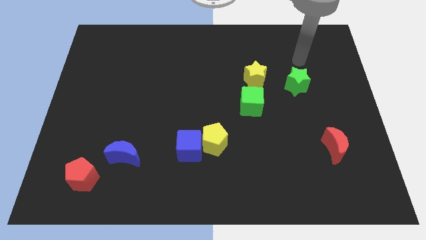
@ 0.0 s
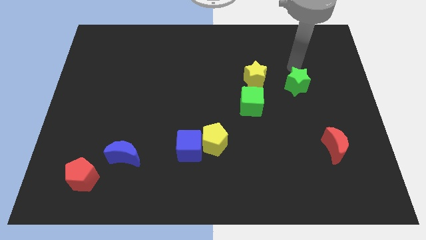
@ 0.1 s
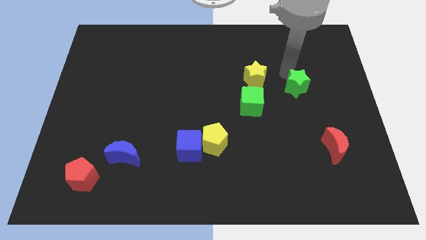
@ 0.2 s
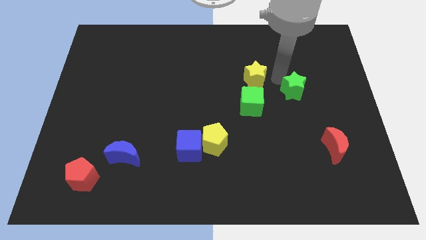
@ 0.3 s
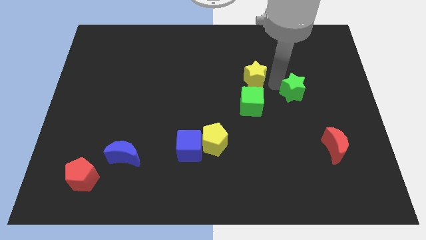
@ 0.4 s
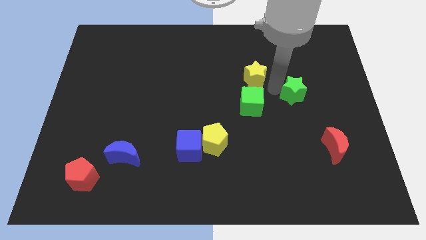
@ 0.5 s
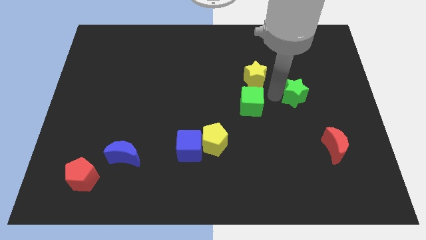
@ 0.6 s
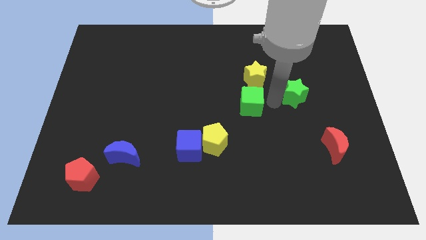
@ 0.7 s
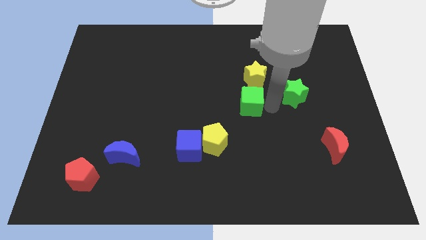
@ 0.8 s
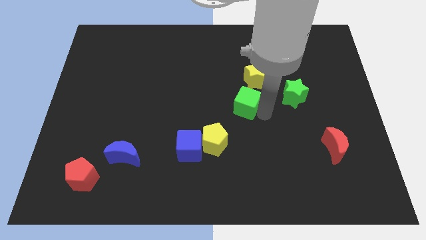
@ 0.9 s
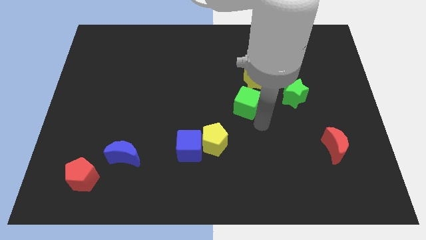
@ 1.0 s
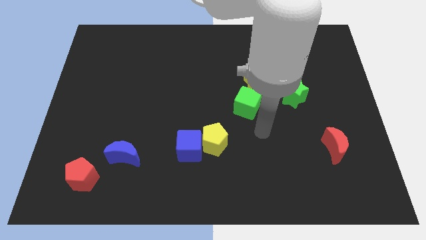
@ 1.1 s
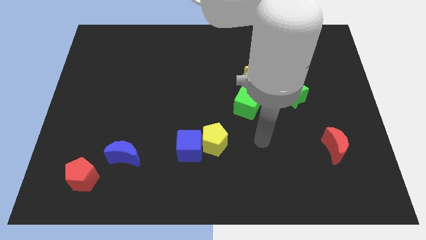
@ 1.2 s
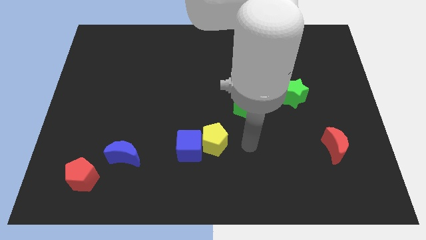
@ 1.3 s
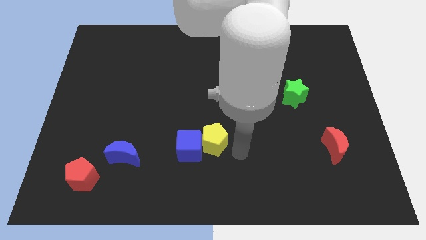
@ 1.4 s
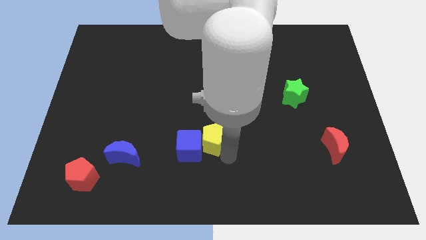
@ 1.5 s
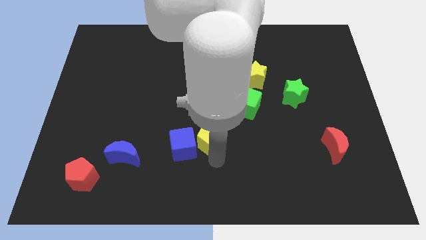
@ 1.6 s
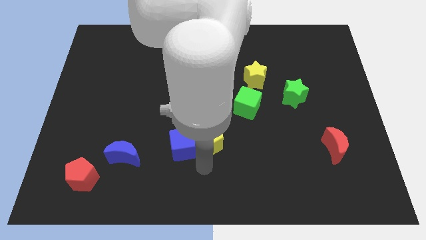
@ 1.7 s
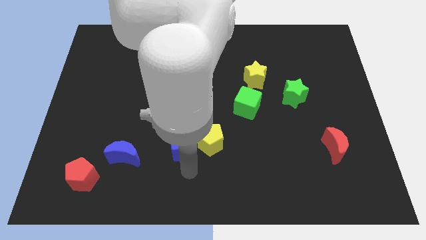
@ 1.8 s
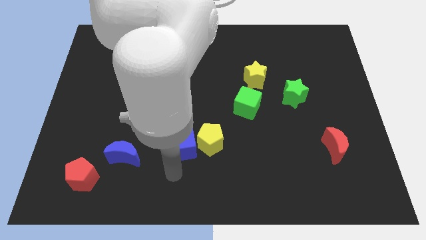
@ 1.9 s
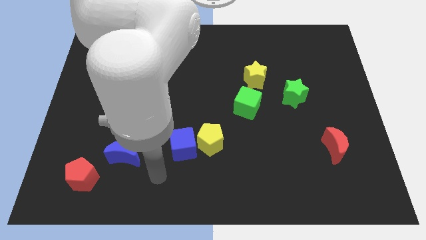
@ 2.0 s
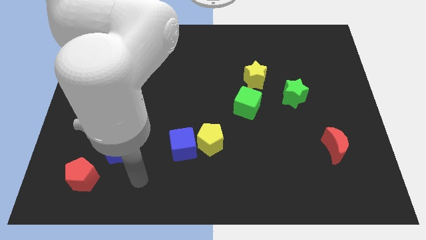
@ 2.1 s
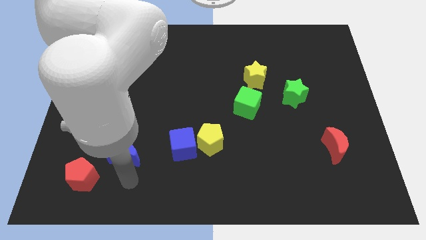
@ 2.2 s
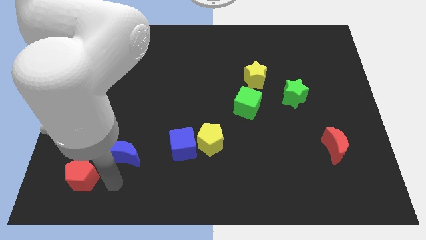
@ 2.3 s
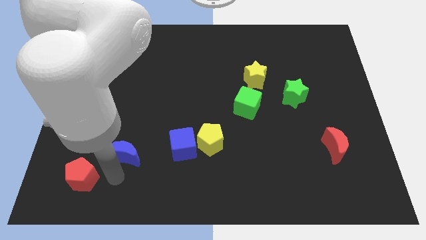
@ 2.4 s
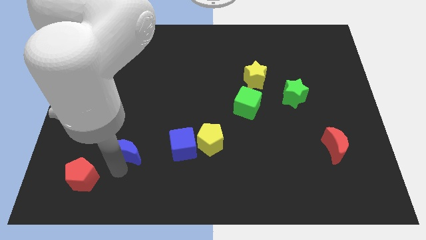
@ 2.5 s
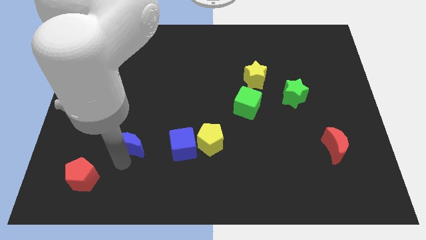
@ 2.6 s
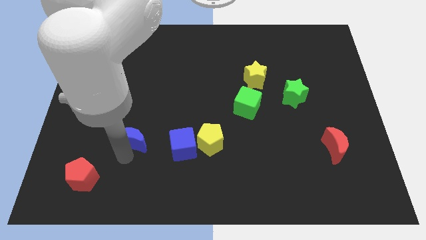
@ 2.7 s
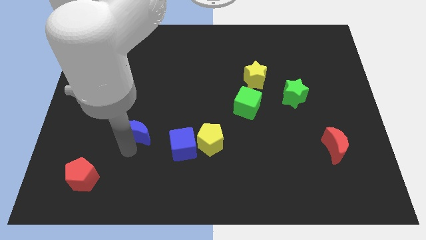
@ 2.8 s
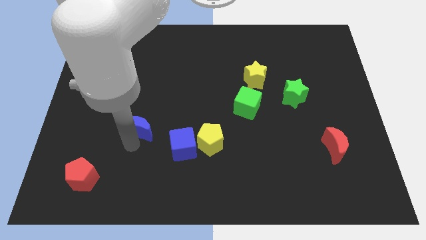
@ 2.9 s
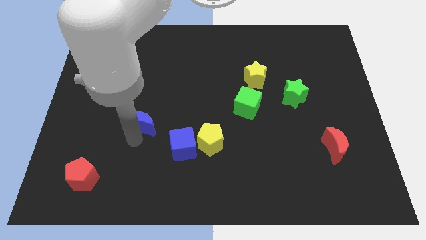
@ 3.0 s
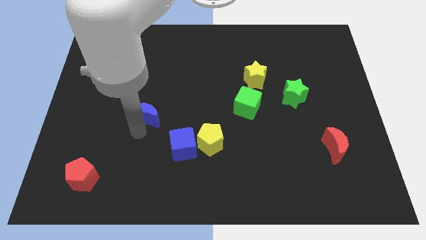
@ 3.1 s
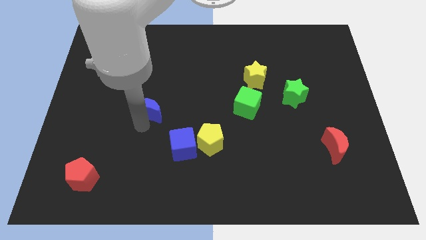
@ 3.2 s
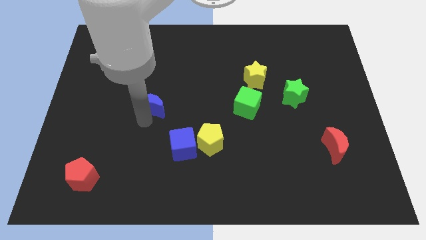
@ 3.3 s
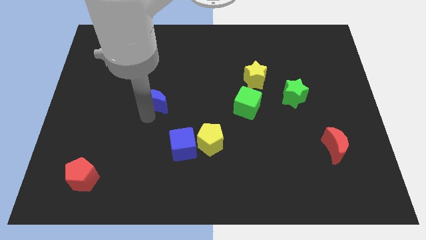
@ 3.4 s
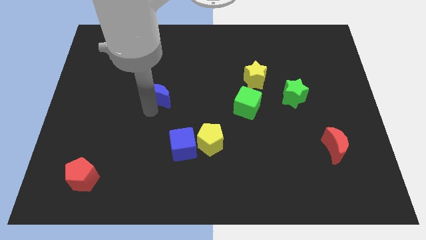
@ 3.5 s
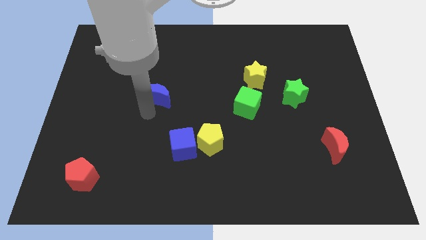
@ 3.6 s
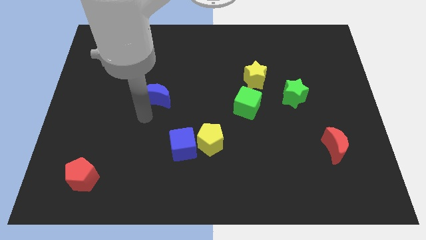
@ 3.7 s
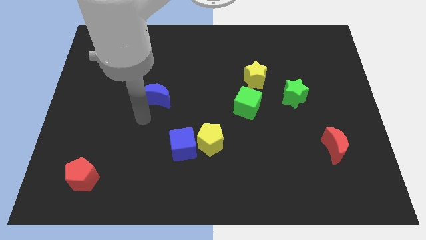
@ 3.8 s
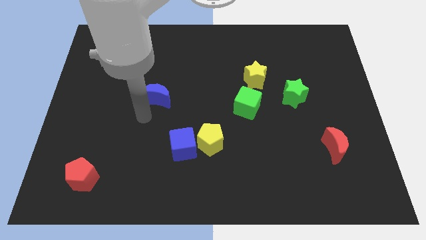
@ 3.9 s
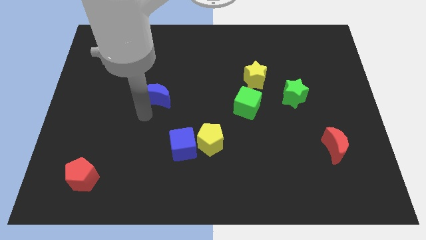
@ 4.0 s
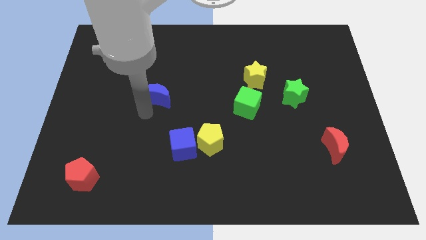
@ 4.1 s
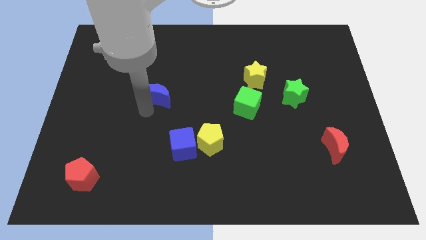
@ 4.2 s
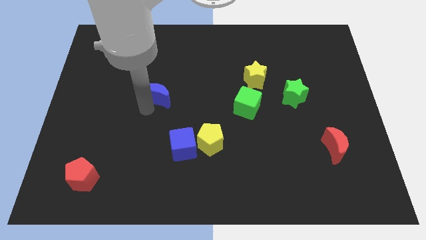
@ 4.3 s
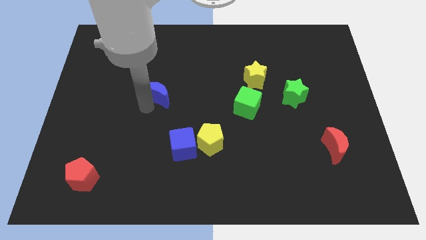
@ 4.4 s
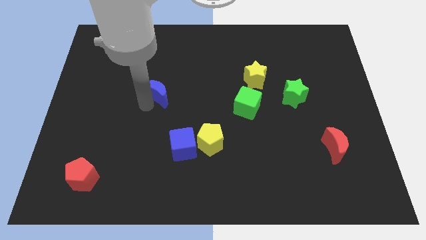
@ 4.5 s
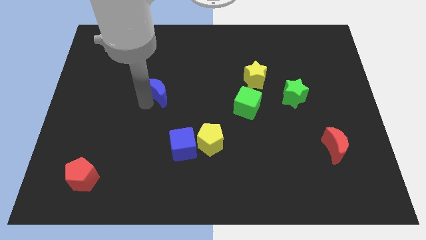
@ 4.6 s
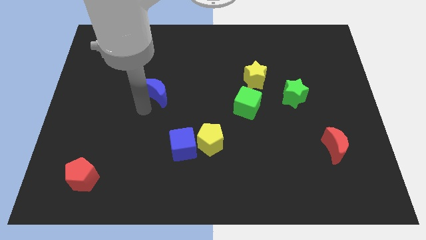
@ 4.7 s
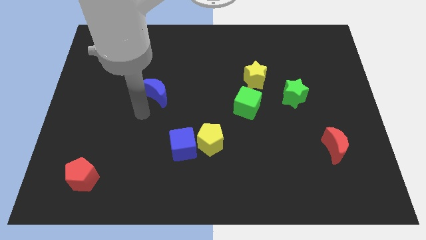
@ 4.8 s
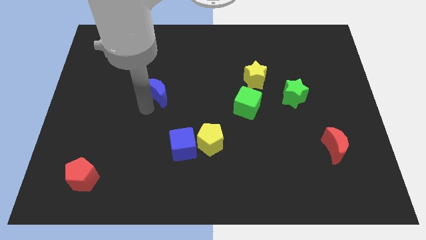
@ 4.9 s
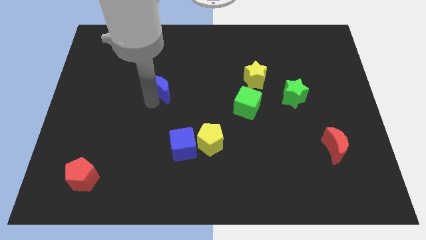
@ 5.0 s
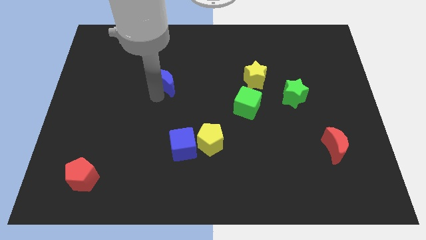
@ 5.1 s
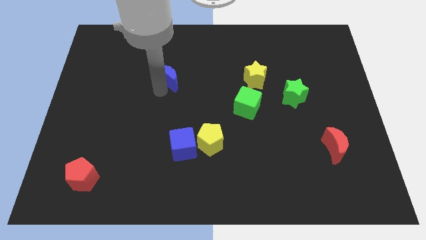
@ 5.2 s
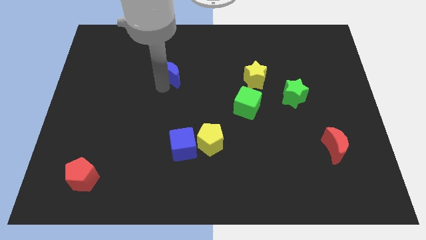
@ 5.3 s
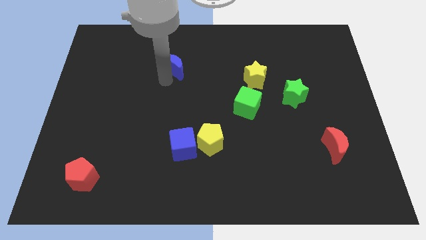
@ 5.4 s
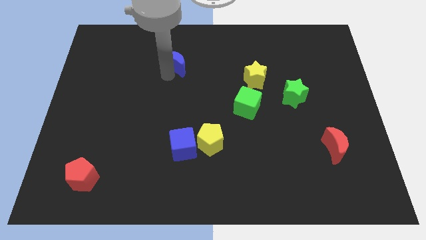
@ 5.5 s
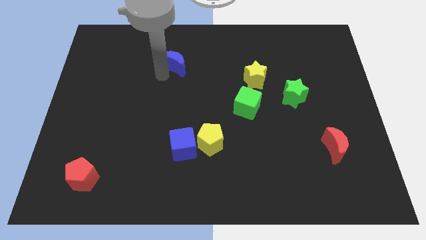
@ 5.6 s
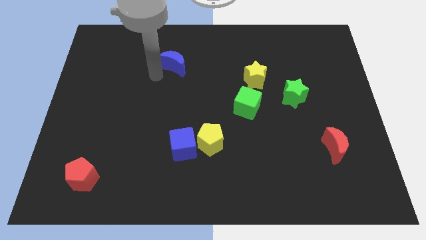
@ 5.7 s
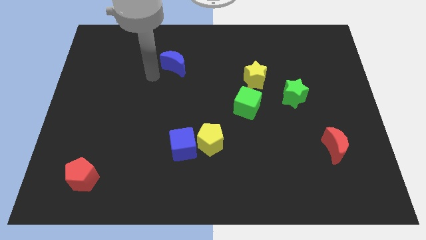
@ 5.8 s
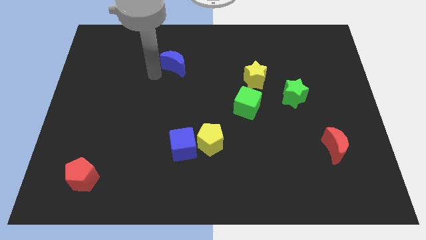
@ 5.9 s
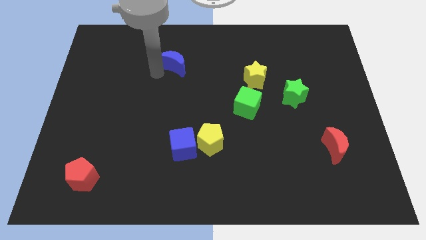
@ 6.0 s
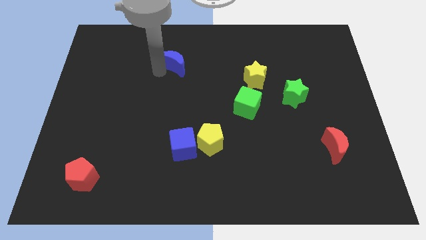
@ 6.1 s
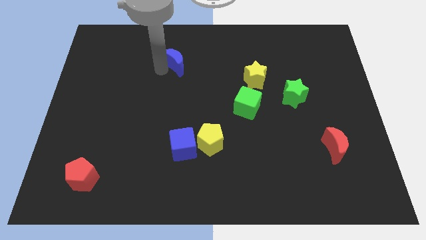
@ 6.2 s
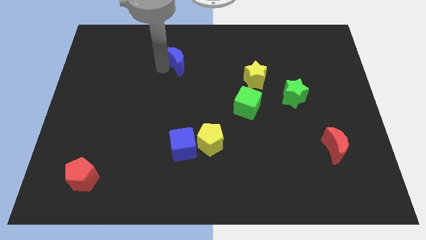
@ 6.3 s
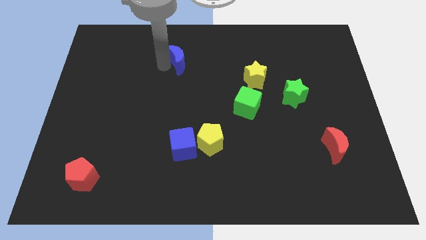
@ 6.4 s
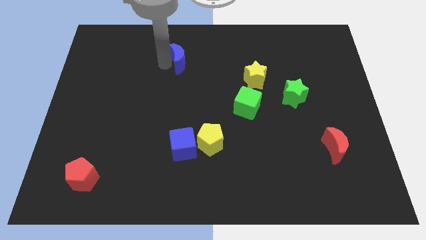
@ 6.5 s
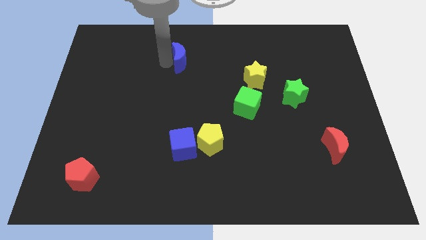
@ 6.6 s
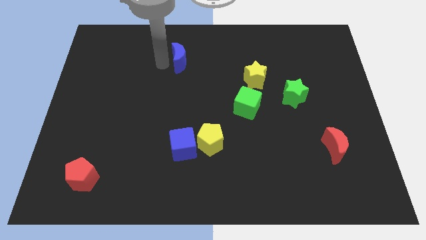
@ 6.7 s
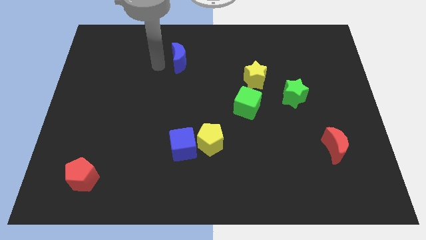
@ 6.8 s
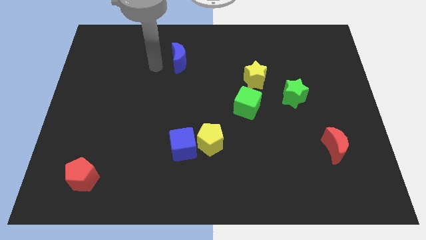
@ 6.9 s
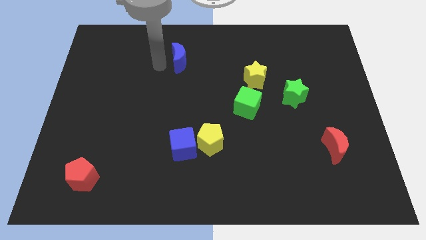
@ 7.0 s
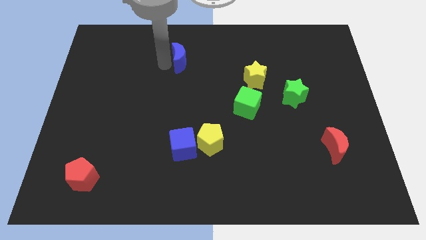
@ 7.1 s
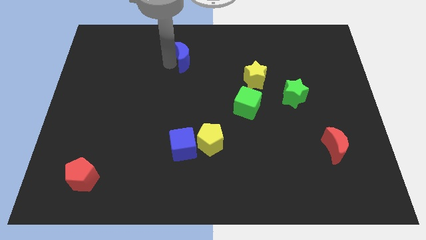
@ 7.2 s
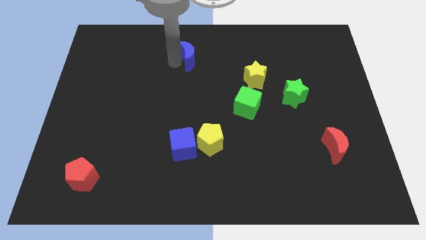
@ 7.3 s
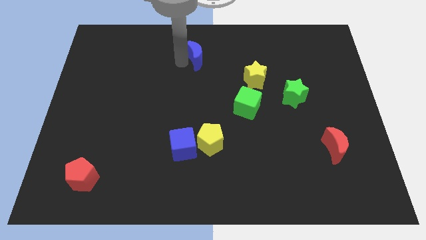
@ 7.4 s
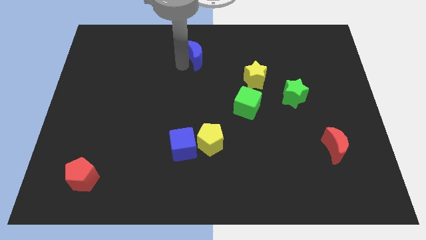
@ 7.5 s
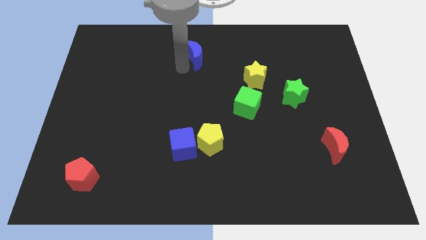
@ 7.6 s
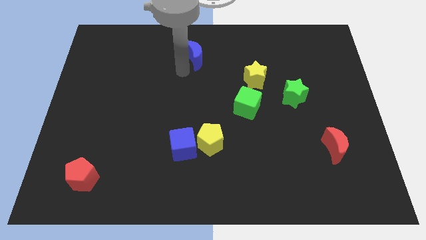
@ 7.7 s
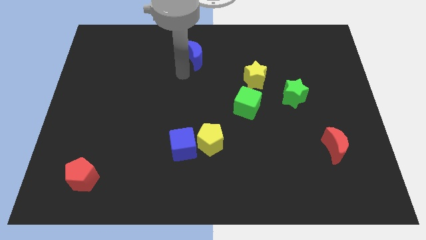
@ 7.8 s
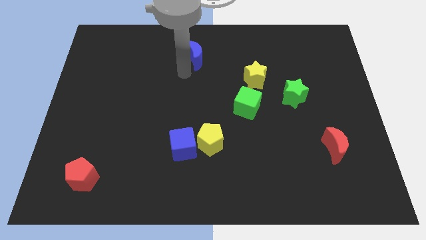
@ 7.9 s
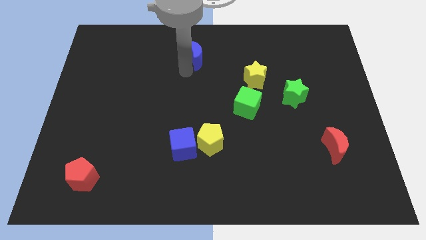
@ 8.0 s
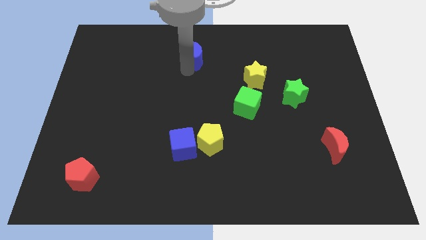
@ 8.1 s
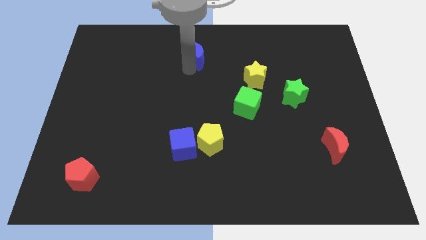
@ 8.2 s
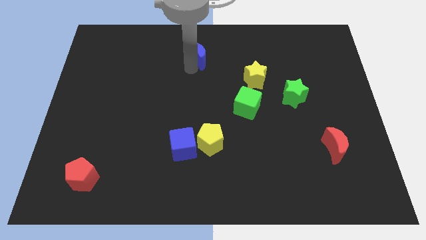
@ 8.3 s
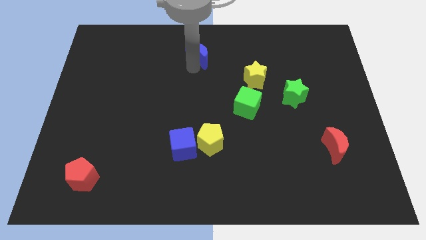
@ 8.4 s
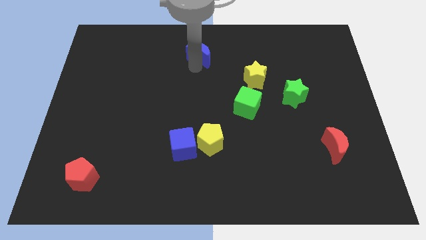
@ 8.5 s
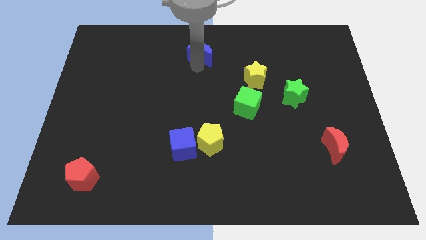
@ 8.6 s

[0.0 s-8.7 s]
move the blue moon to the towards your base
